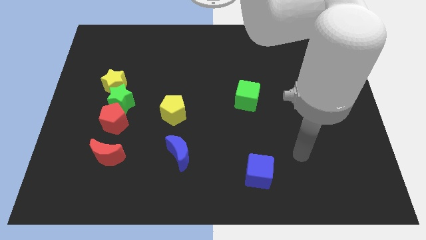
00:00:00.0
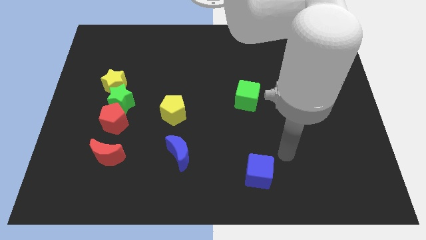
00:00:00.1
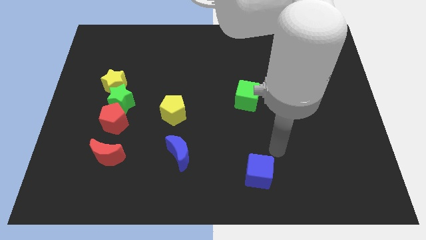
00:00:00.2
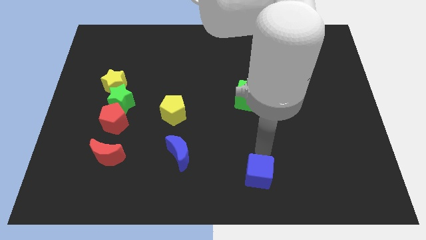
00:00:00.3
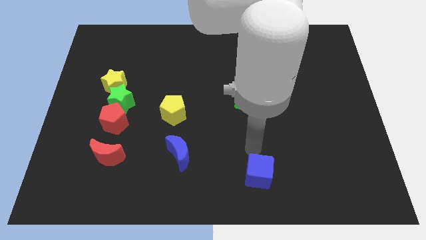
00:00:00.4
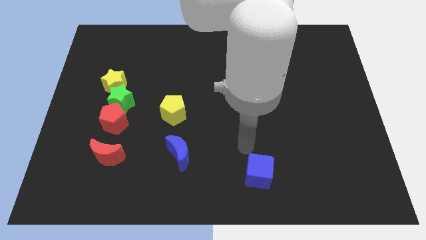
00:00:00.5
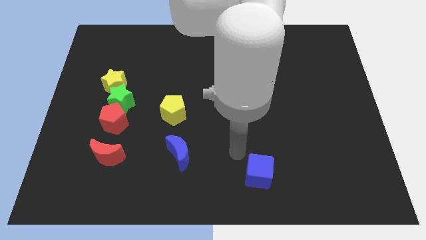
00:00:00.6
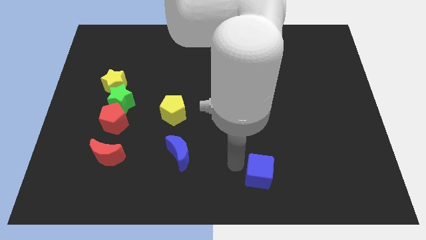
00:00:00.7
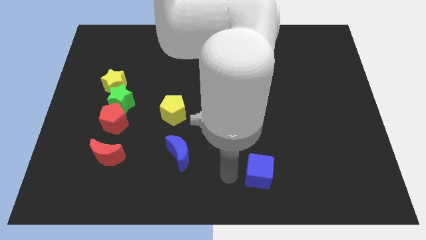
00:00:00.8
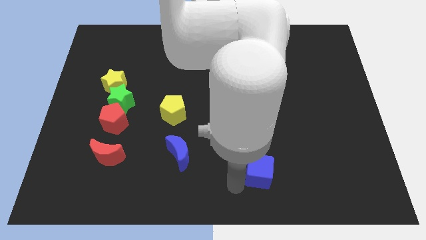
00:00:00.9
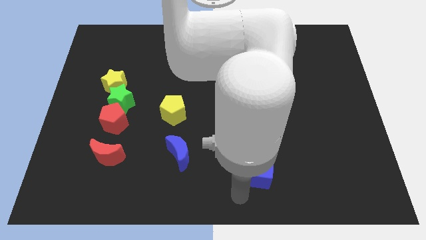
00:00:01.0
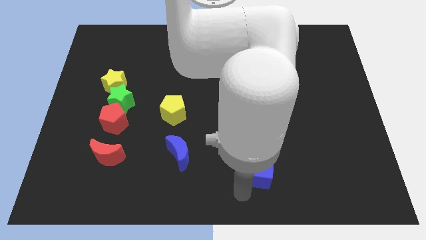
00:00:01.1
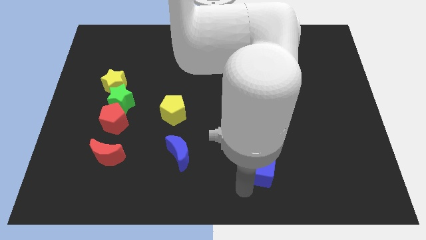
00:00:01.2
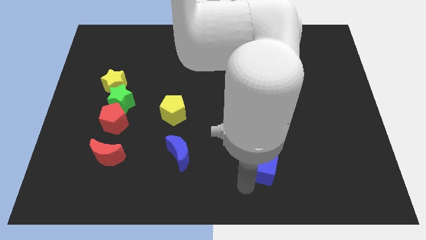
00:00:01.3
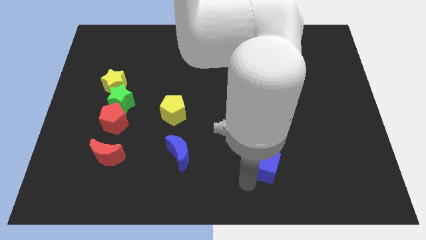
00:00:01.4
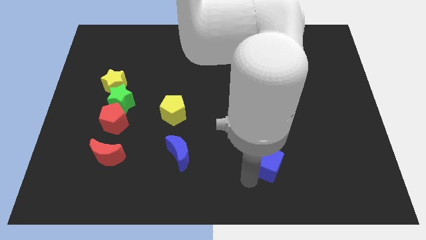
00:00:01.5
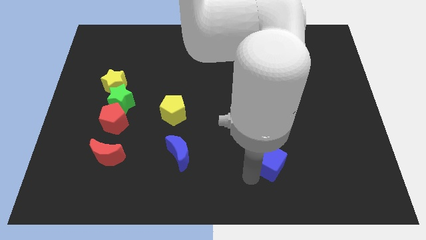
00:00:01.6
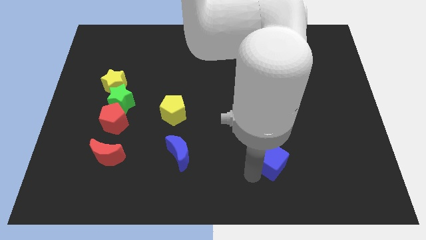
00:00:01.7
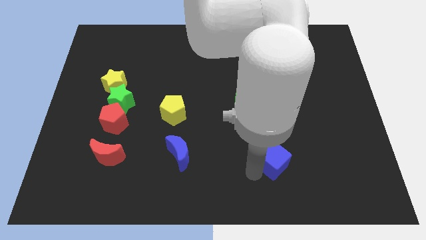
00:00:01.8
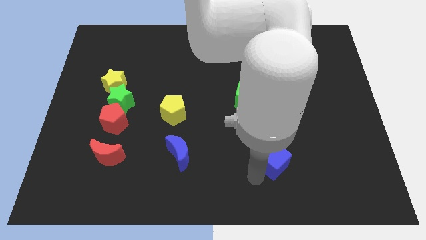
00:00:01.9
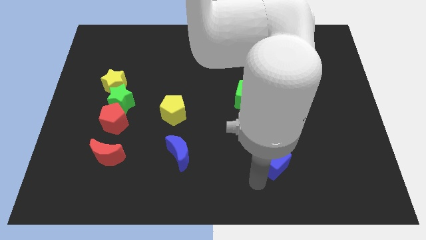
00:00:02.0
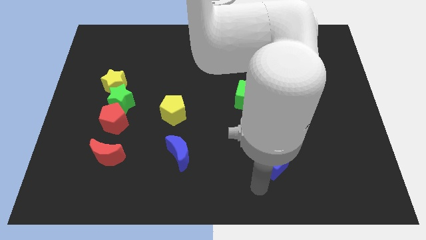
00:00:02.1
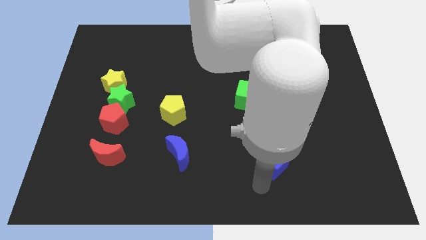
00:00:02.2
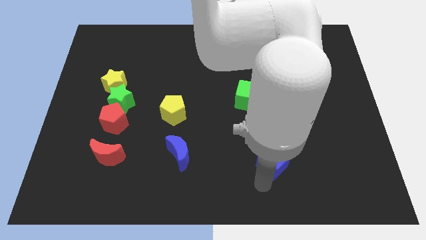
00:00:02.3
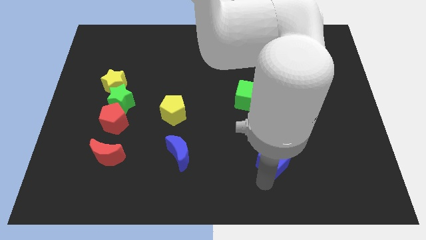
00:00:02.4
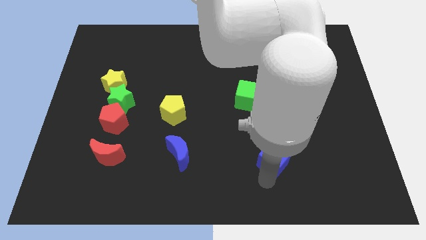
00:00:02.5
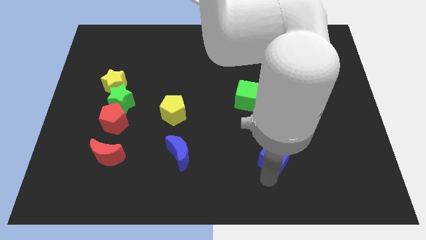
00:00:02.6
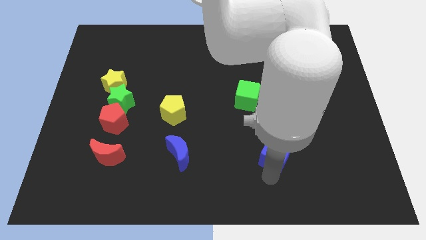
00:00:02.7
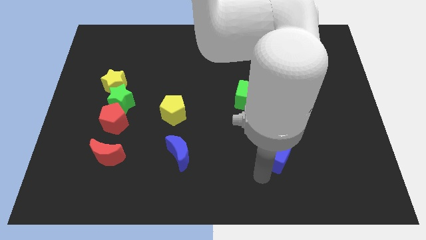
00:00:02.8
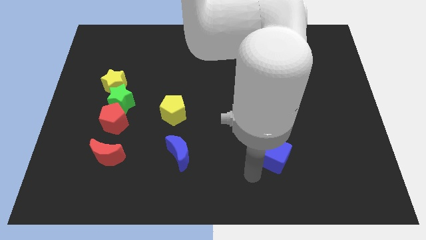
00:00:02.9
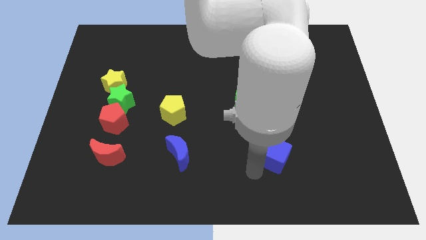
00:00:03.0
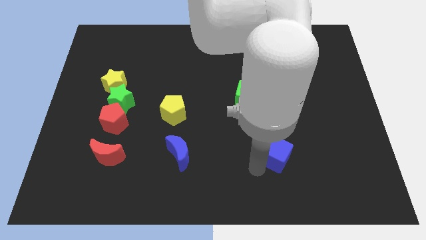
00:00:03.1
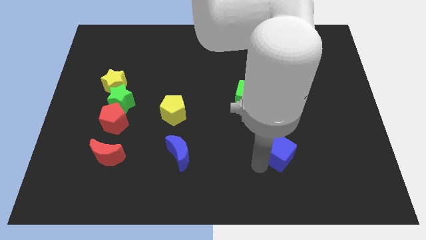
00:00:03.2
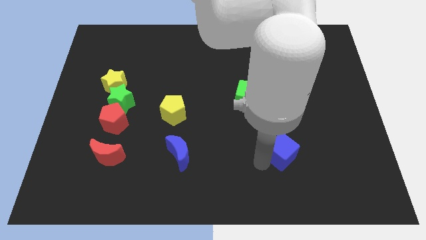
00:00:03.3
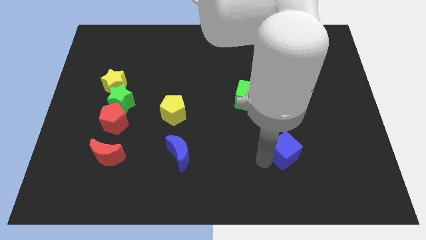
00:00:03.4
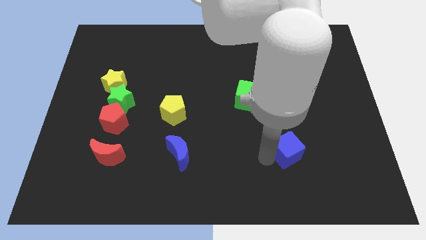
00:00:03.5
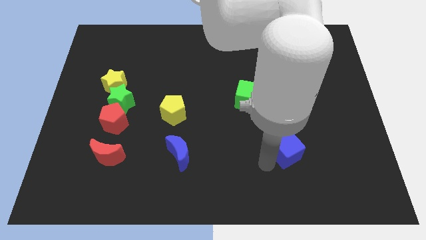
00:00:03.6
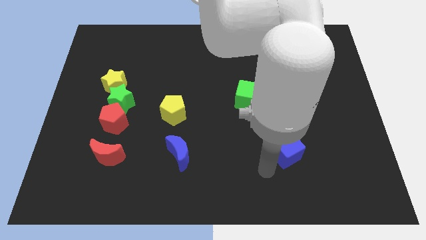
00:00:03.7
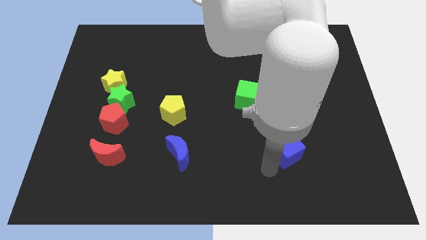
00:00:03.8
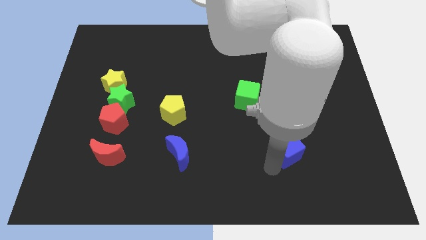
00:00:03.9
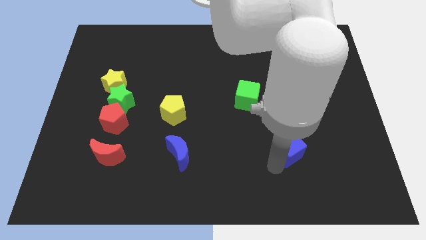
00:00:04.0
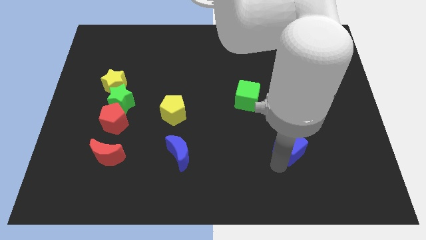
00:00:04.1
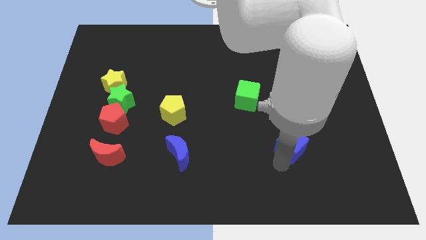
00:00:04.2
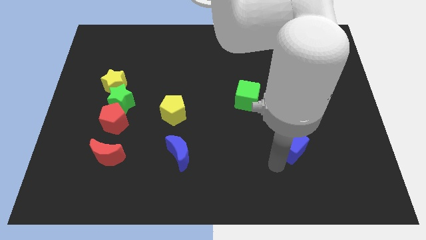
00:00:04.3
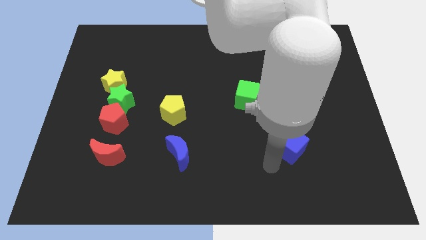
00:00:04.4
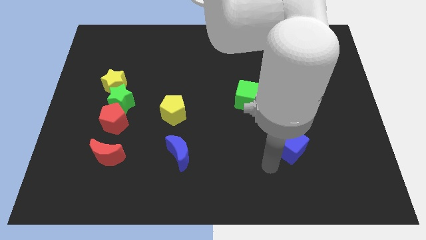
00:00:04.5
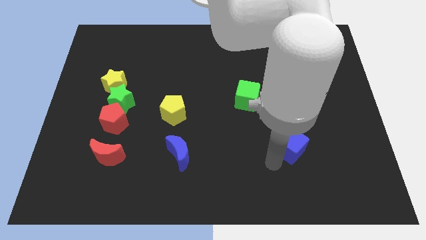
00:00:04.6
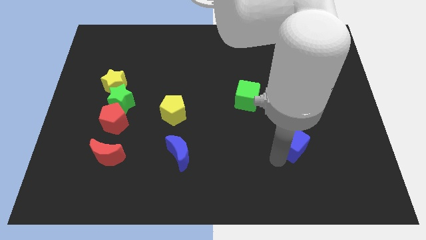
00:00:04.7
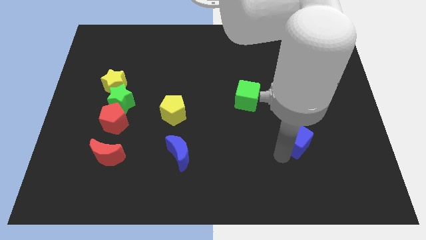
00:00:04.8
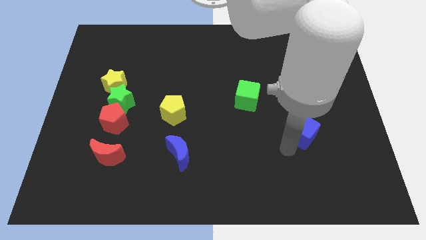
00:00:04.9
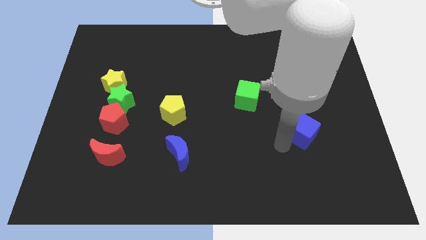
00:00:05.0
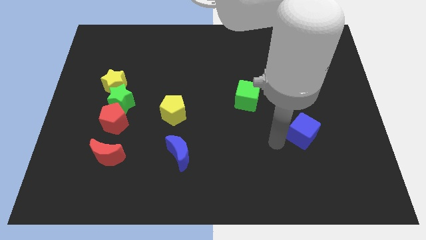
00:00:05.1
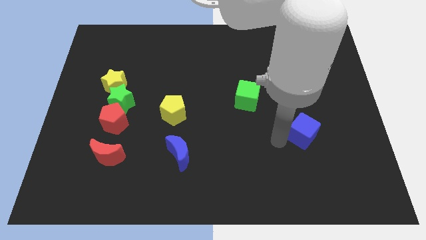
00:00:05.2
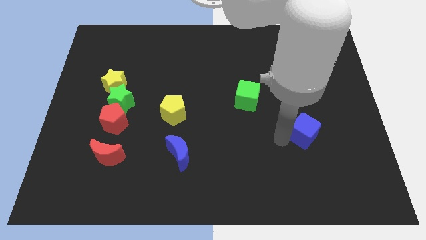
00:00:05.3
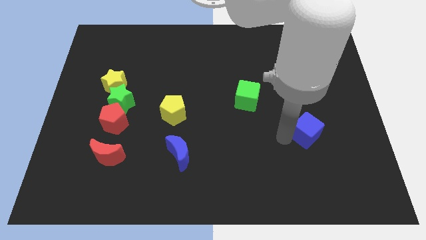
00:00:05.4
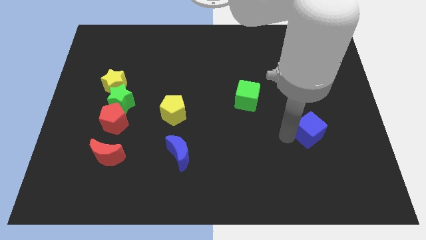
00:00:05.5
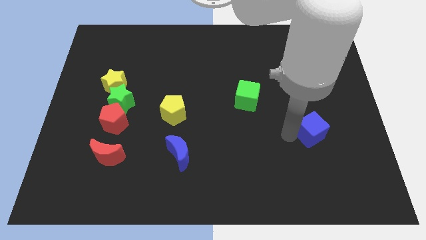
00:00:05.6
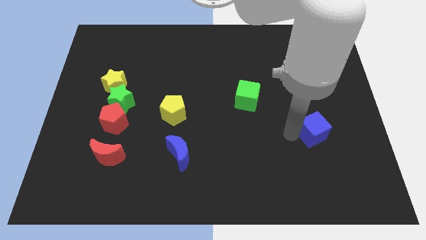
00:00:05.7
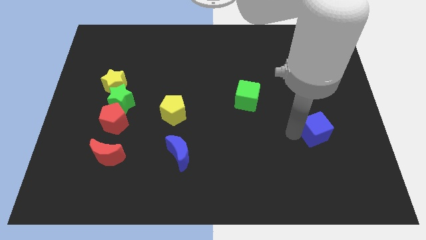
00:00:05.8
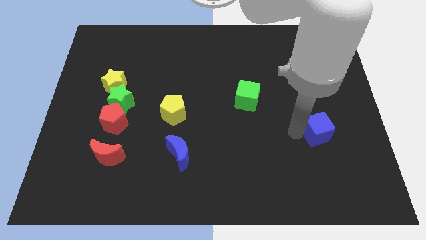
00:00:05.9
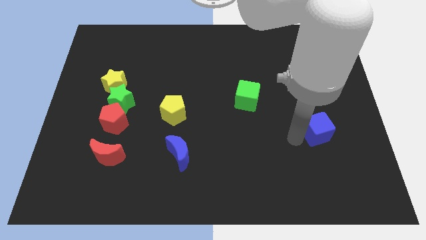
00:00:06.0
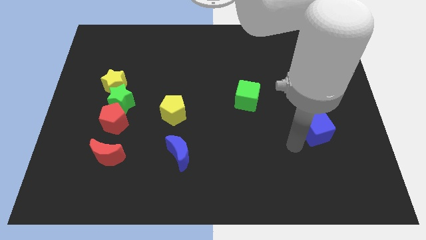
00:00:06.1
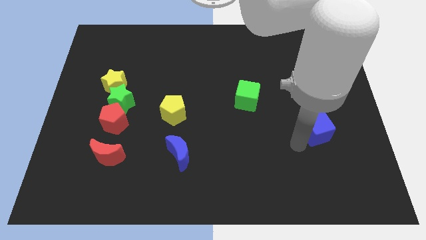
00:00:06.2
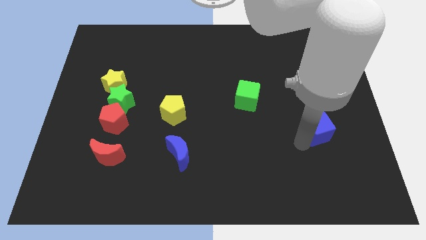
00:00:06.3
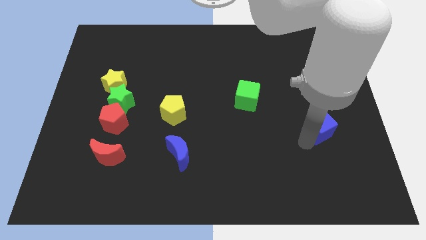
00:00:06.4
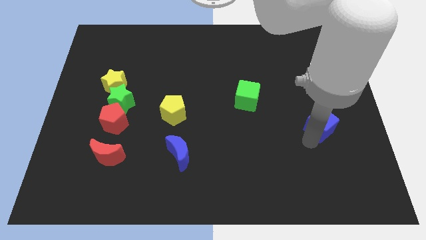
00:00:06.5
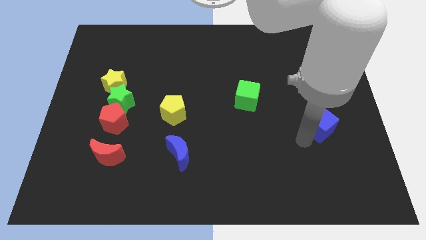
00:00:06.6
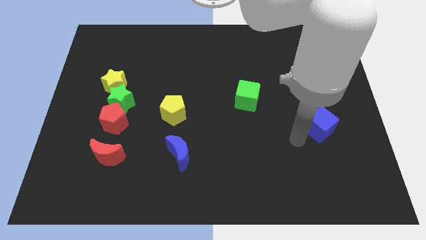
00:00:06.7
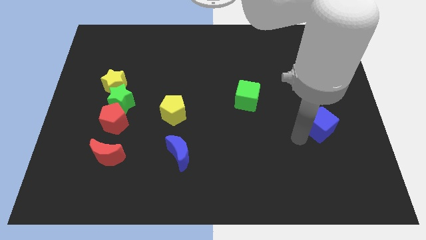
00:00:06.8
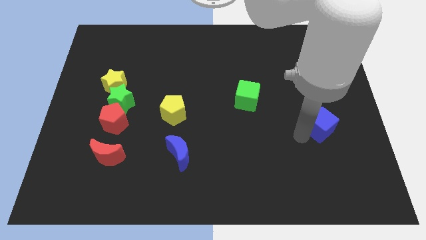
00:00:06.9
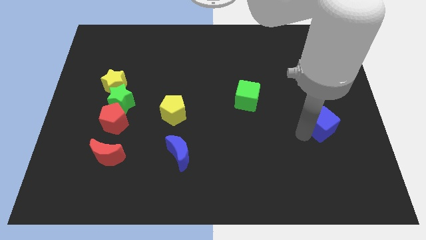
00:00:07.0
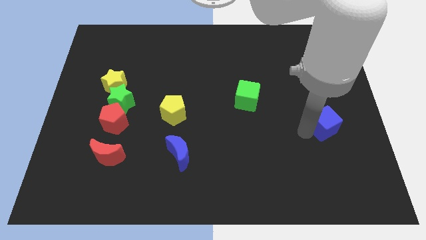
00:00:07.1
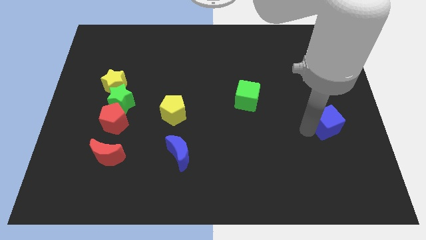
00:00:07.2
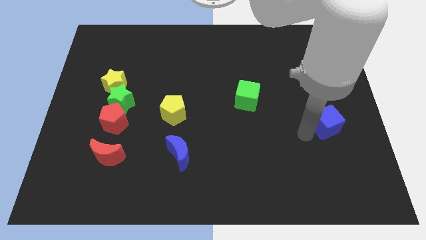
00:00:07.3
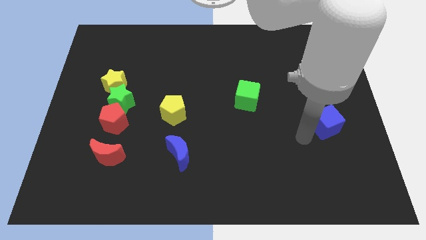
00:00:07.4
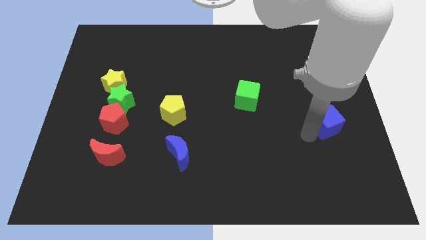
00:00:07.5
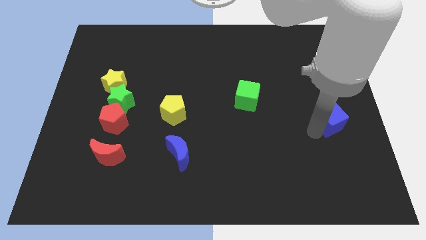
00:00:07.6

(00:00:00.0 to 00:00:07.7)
put the blue cube to the right side of the board
